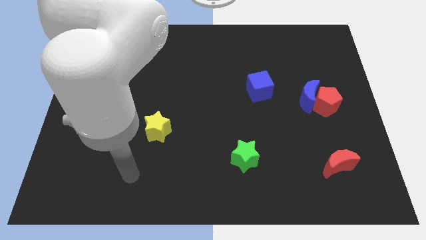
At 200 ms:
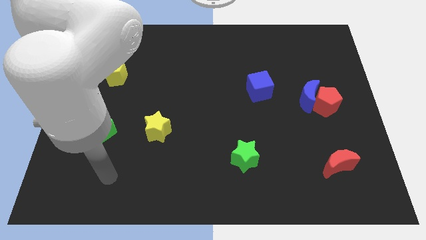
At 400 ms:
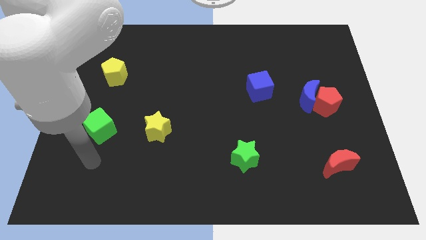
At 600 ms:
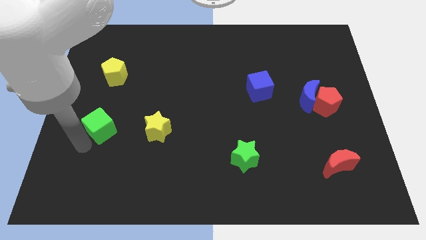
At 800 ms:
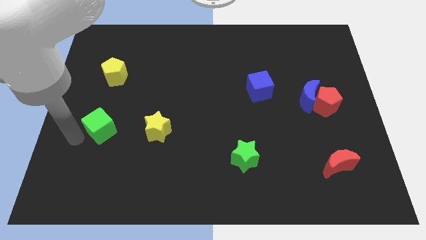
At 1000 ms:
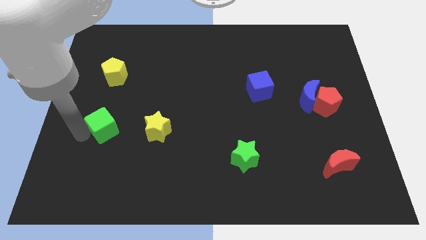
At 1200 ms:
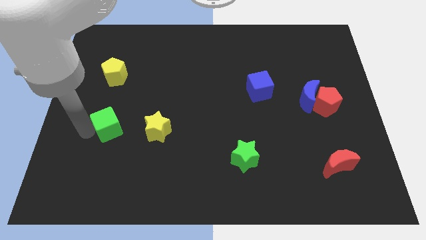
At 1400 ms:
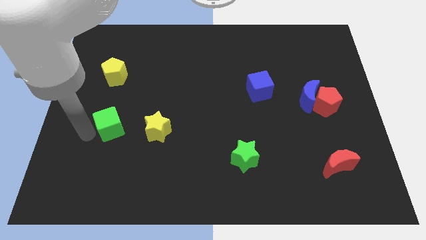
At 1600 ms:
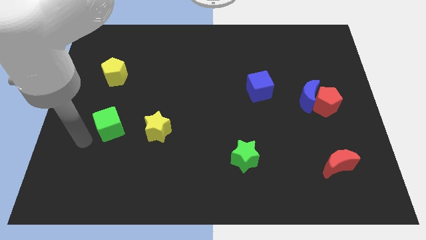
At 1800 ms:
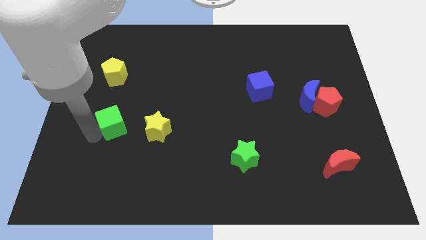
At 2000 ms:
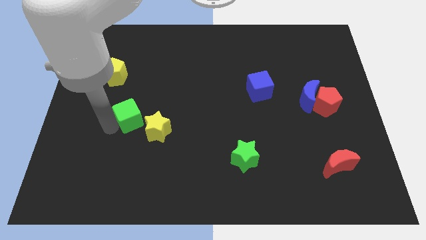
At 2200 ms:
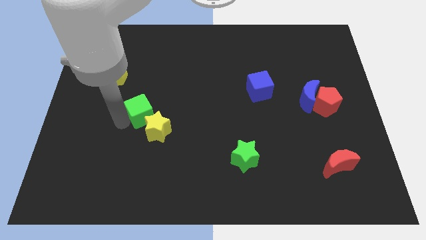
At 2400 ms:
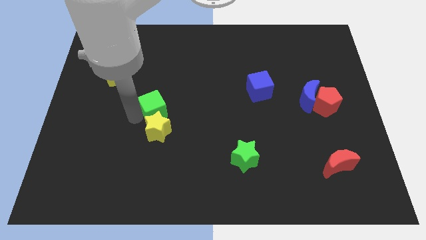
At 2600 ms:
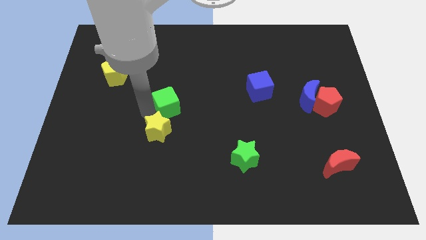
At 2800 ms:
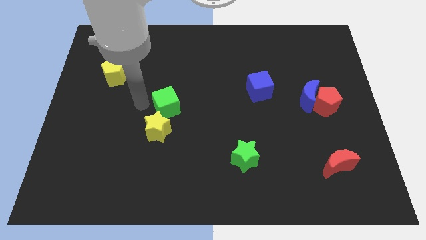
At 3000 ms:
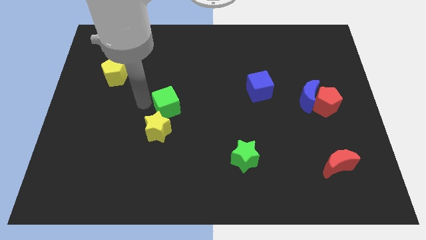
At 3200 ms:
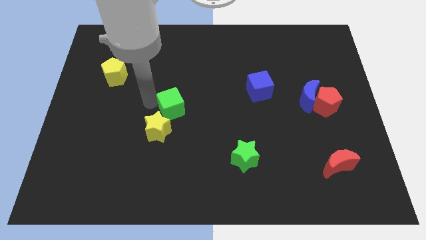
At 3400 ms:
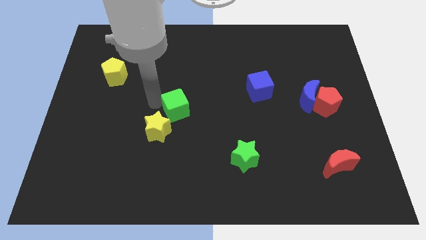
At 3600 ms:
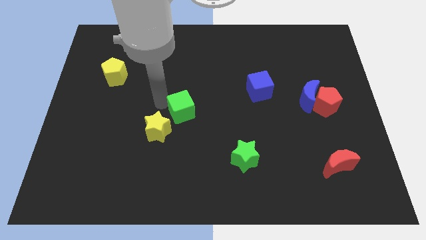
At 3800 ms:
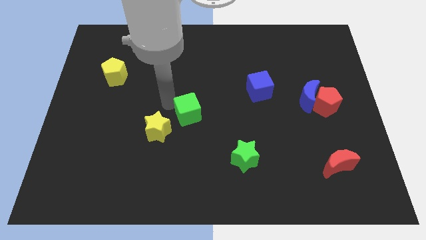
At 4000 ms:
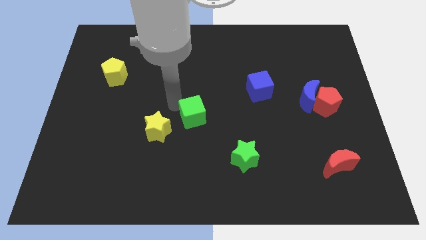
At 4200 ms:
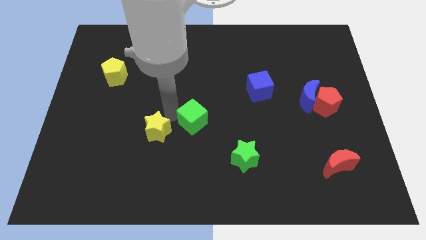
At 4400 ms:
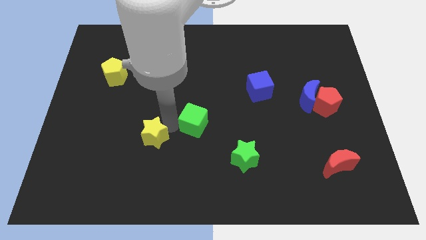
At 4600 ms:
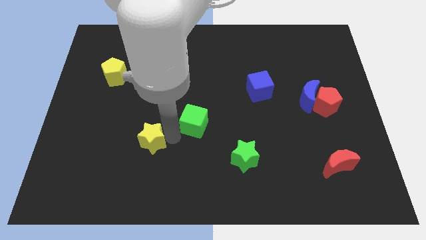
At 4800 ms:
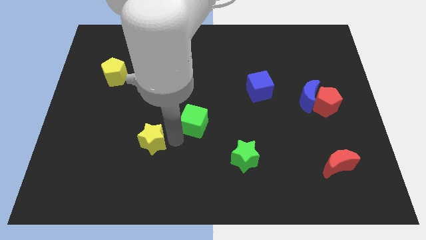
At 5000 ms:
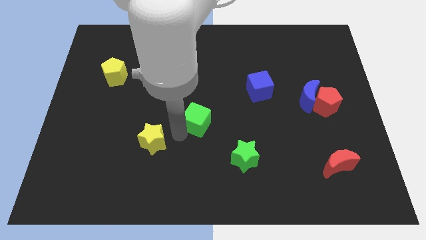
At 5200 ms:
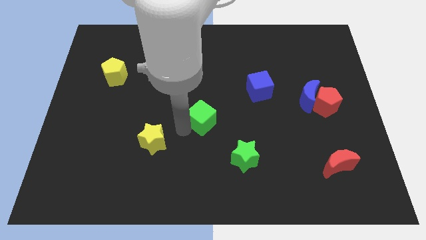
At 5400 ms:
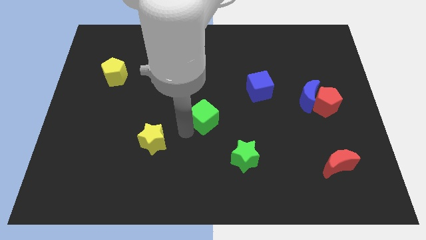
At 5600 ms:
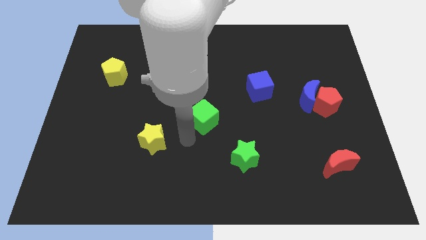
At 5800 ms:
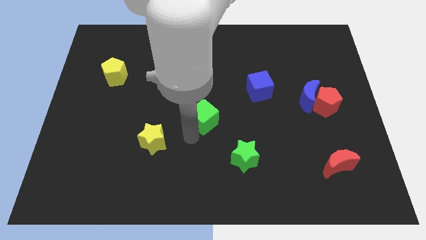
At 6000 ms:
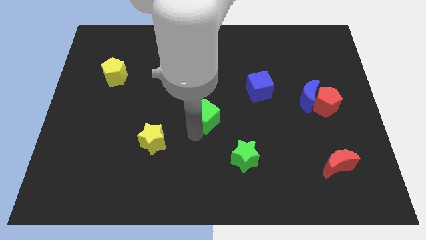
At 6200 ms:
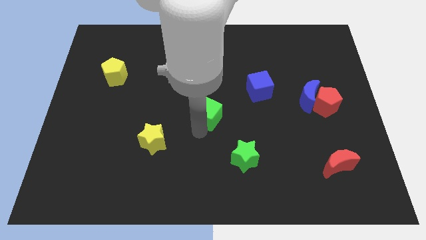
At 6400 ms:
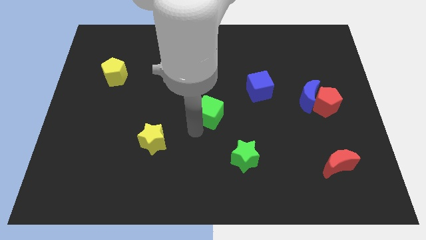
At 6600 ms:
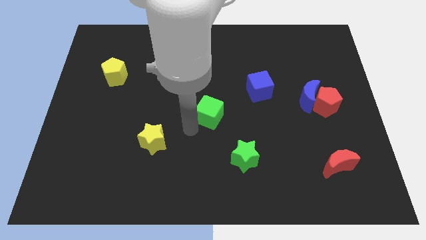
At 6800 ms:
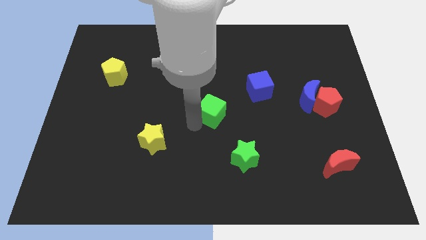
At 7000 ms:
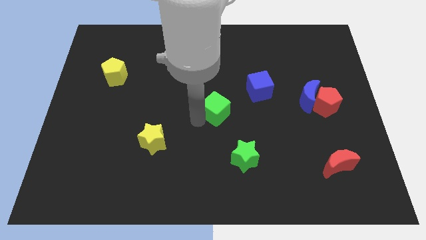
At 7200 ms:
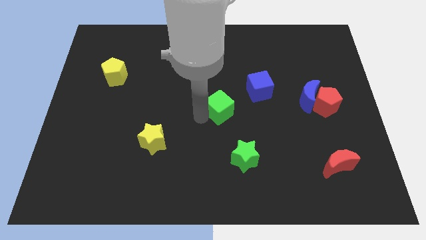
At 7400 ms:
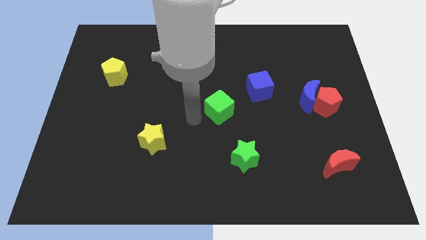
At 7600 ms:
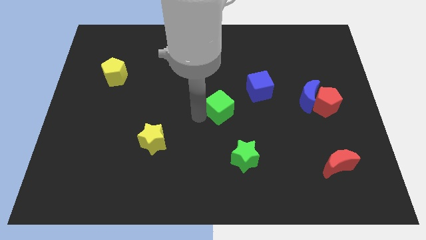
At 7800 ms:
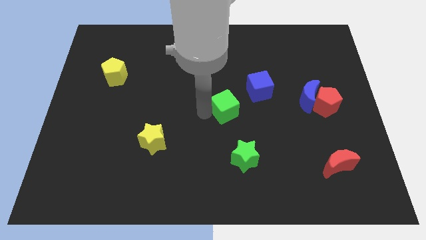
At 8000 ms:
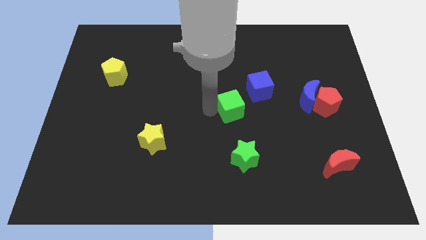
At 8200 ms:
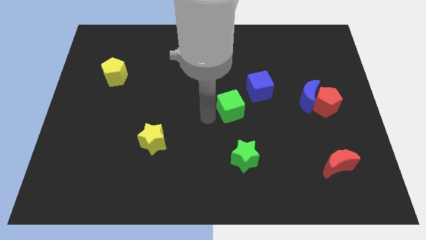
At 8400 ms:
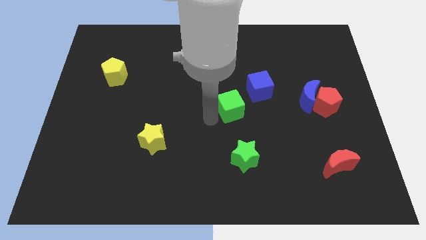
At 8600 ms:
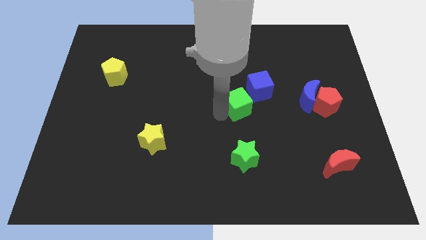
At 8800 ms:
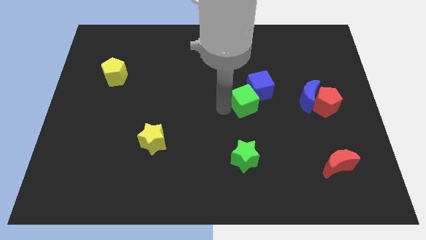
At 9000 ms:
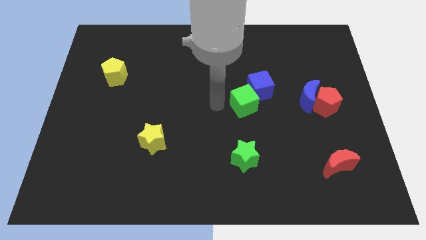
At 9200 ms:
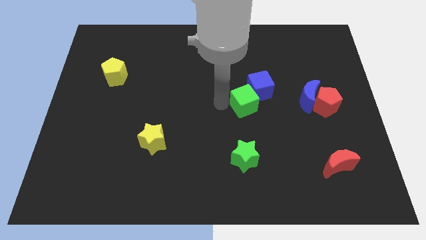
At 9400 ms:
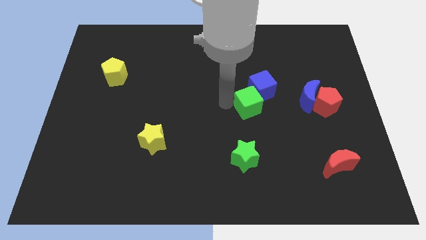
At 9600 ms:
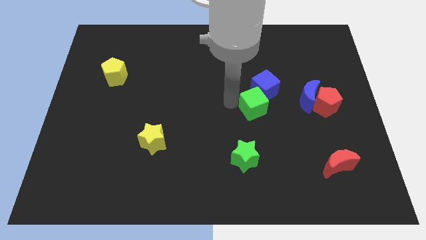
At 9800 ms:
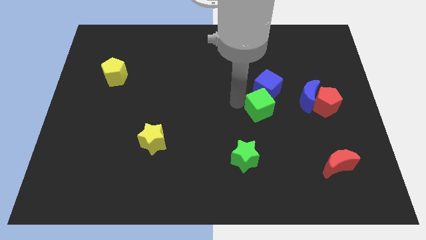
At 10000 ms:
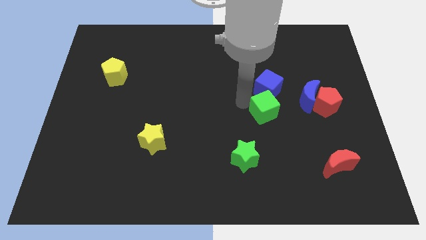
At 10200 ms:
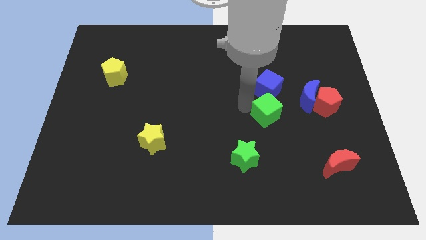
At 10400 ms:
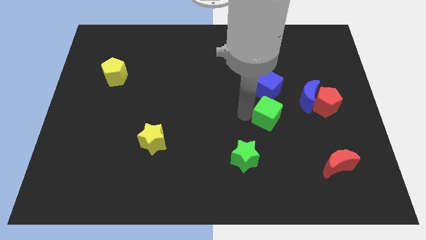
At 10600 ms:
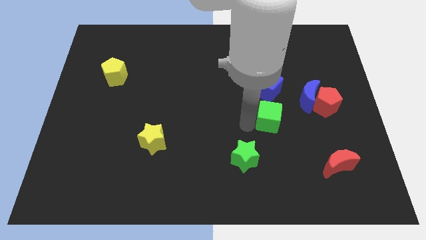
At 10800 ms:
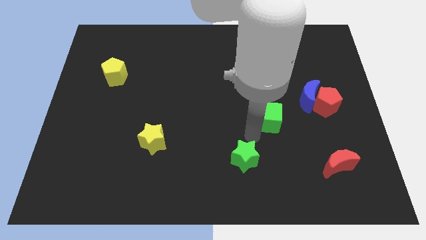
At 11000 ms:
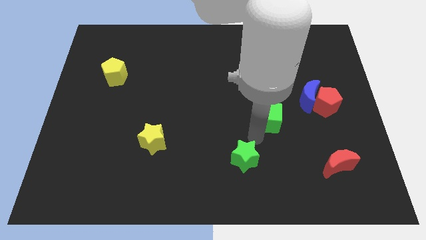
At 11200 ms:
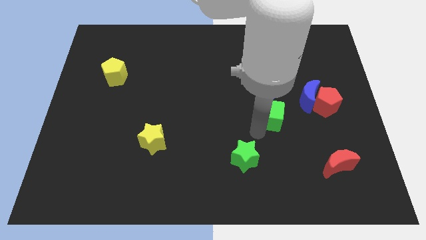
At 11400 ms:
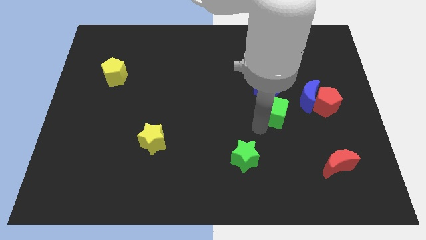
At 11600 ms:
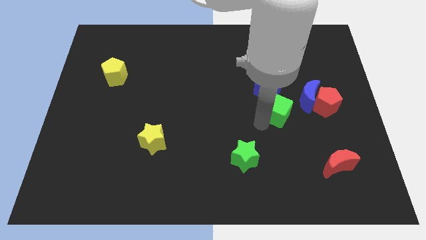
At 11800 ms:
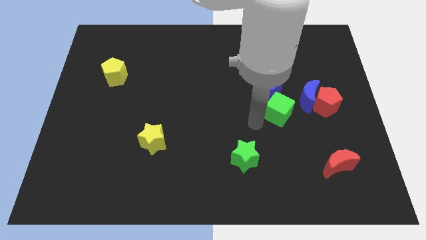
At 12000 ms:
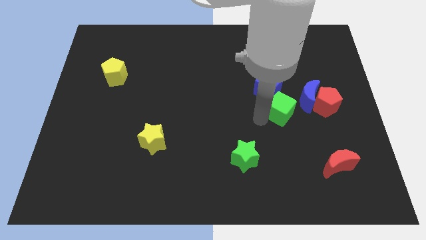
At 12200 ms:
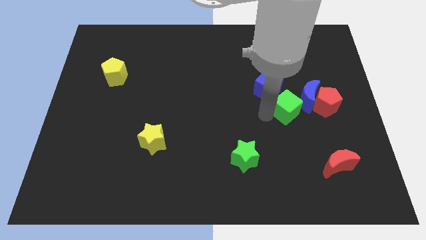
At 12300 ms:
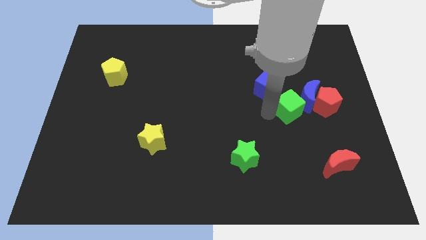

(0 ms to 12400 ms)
push the green cube next to the blue moon

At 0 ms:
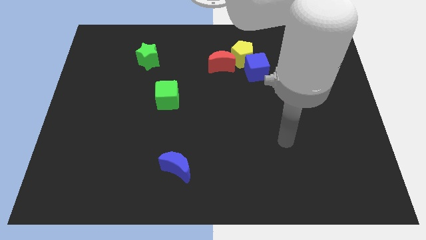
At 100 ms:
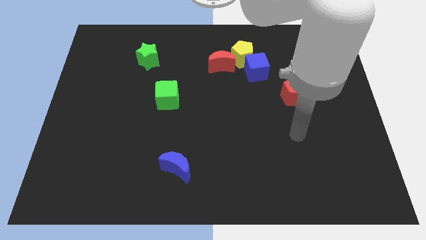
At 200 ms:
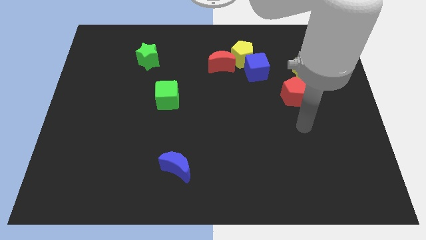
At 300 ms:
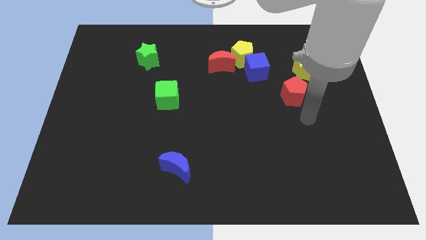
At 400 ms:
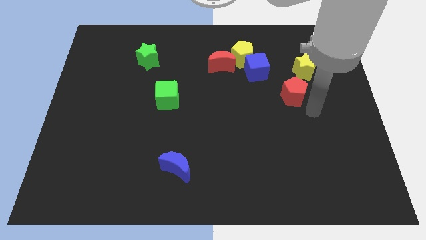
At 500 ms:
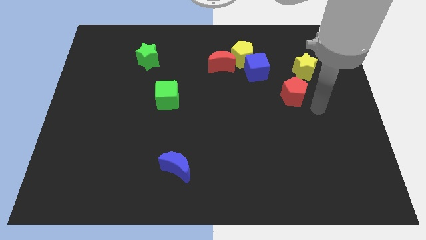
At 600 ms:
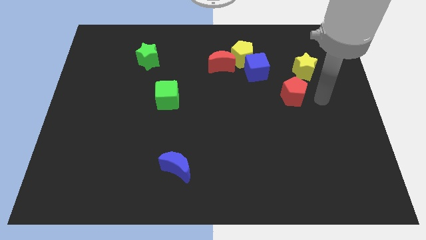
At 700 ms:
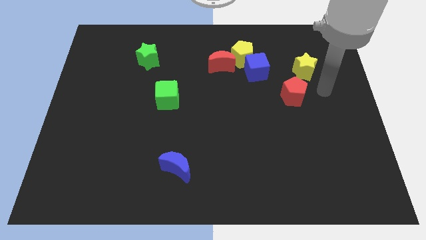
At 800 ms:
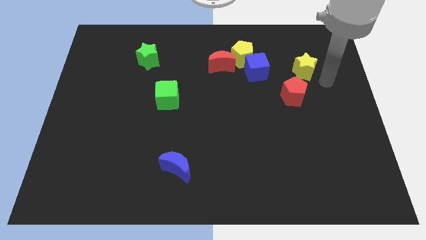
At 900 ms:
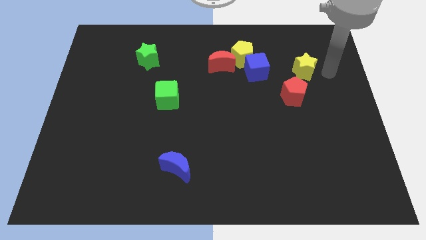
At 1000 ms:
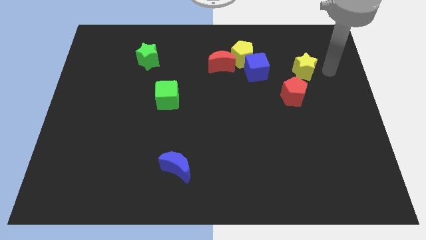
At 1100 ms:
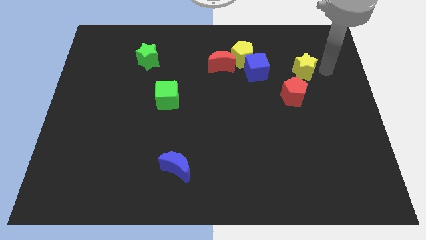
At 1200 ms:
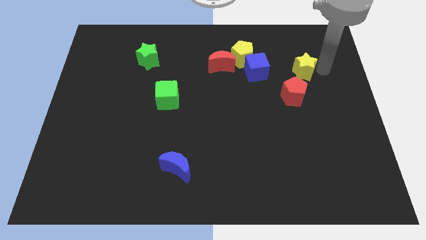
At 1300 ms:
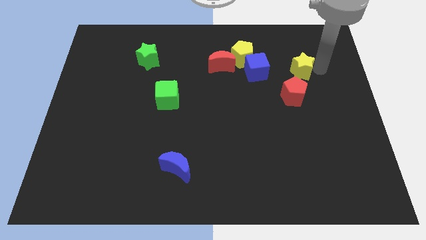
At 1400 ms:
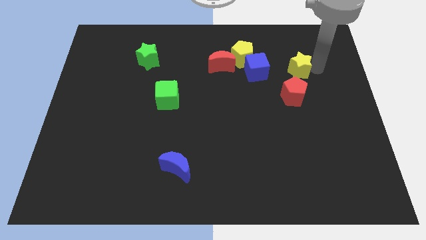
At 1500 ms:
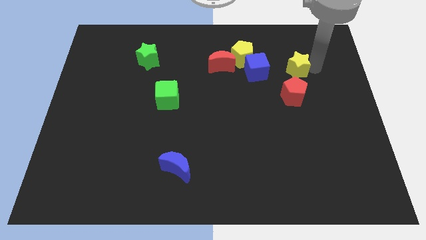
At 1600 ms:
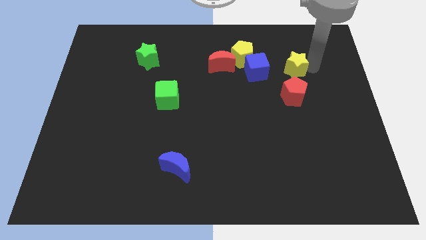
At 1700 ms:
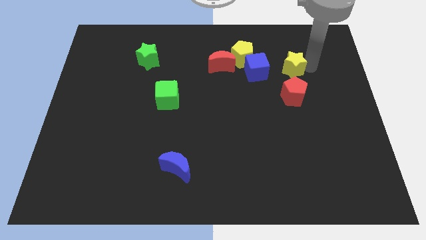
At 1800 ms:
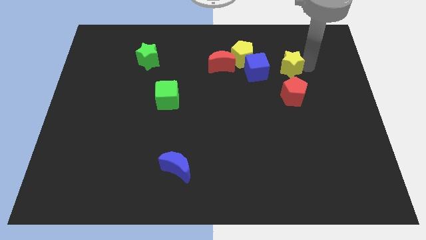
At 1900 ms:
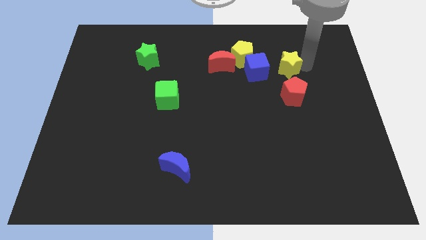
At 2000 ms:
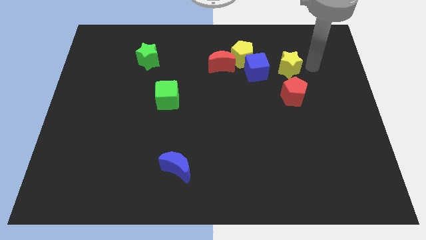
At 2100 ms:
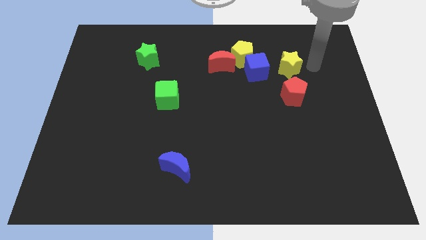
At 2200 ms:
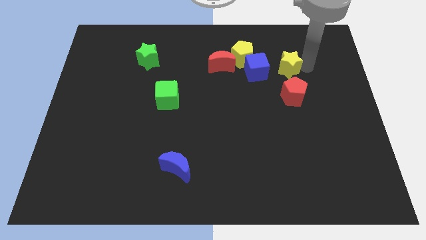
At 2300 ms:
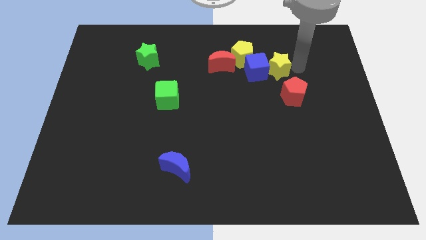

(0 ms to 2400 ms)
move the yellow star next to the blue cube
